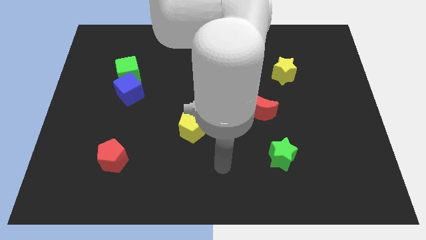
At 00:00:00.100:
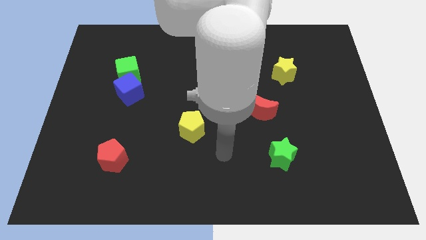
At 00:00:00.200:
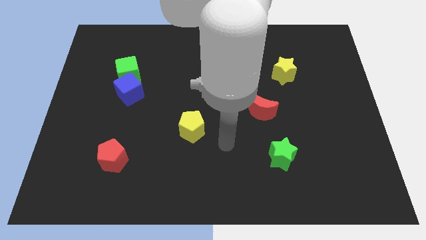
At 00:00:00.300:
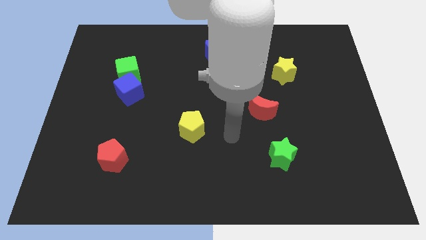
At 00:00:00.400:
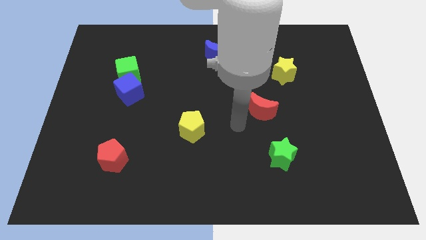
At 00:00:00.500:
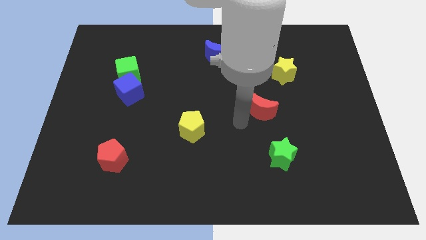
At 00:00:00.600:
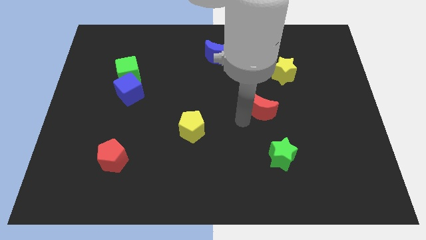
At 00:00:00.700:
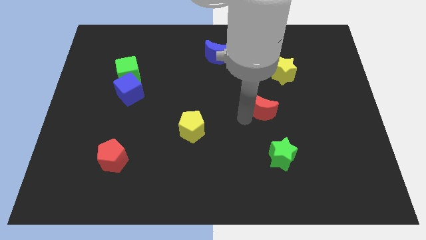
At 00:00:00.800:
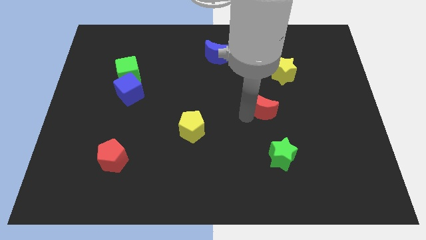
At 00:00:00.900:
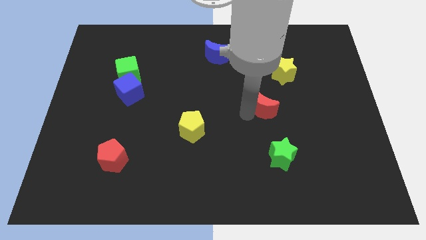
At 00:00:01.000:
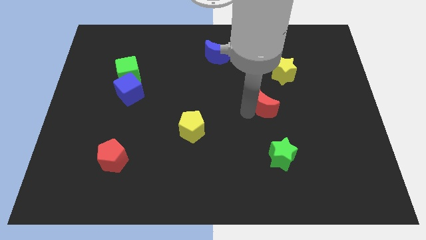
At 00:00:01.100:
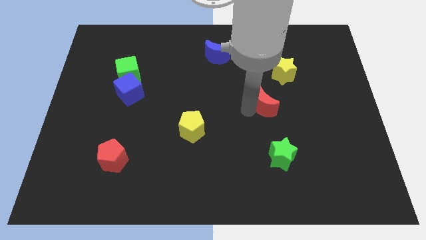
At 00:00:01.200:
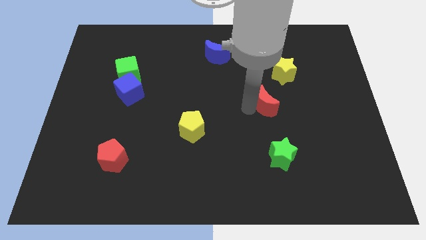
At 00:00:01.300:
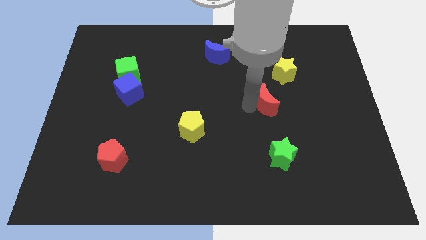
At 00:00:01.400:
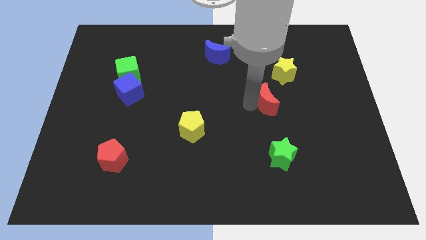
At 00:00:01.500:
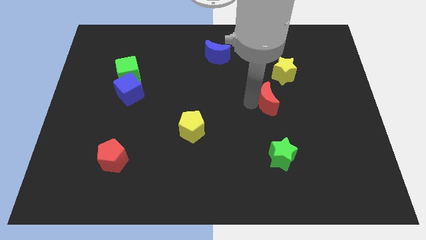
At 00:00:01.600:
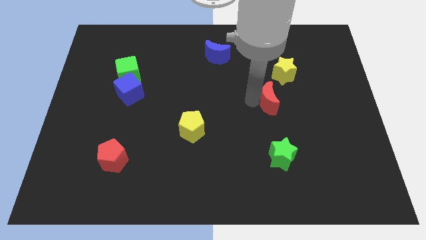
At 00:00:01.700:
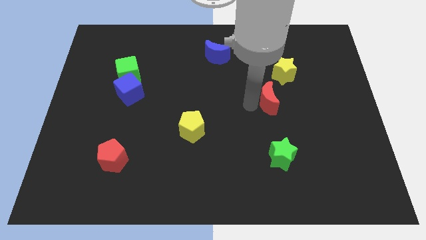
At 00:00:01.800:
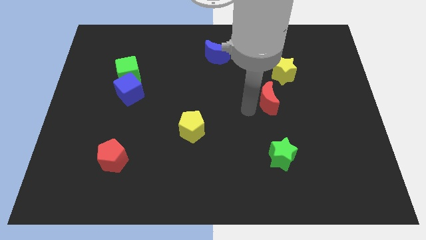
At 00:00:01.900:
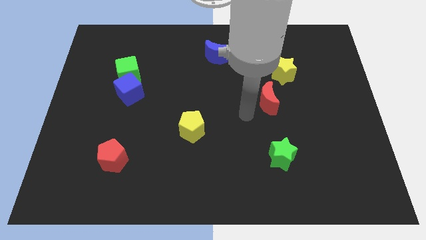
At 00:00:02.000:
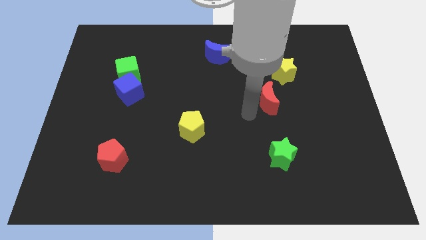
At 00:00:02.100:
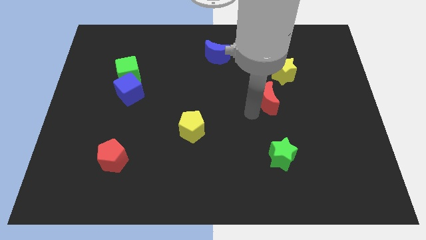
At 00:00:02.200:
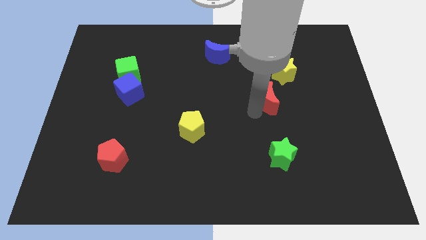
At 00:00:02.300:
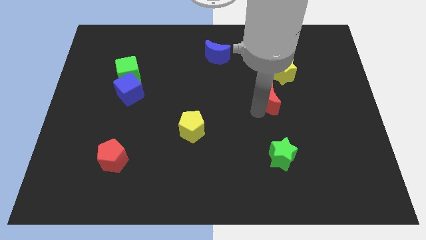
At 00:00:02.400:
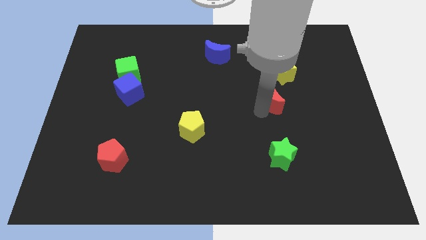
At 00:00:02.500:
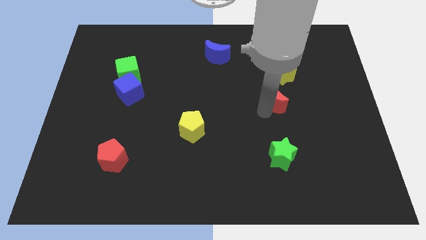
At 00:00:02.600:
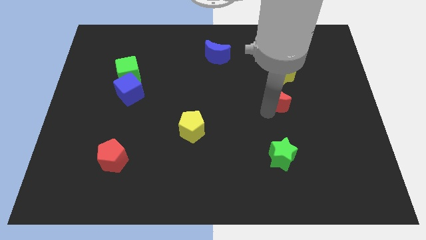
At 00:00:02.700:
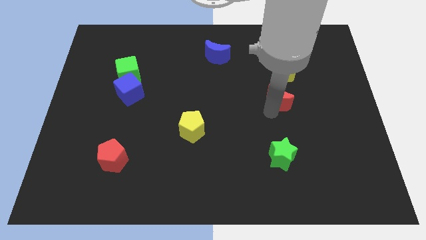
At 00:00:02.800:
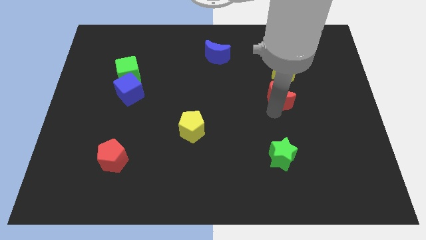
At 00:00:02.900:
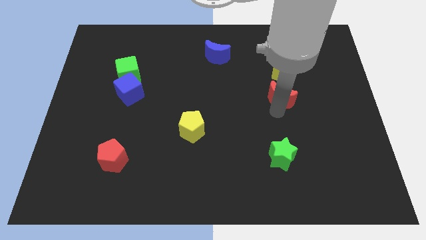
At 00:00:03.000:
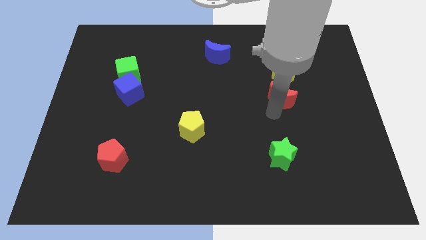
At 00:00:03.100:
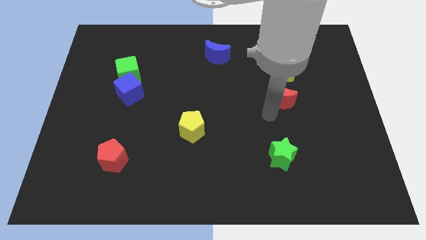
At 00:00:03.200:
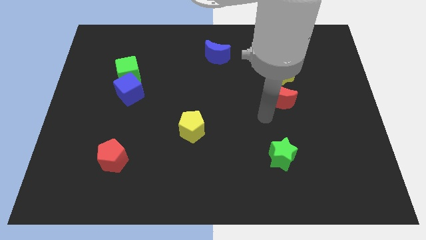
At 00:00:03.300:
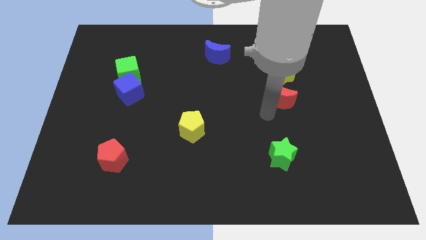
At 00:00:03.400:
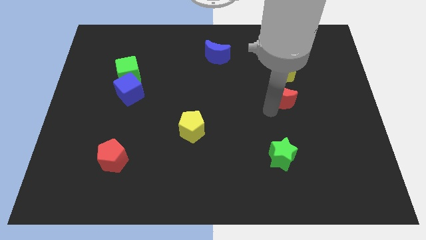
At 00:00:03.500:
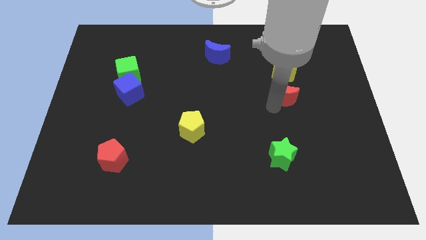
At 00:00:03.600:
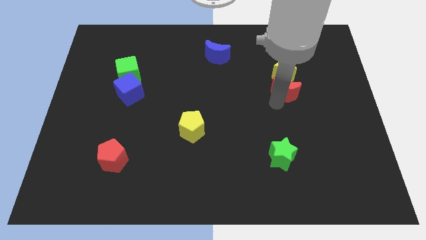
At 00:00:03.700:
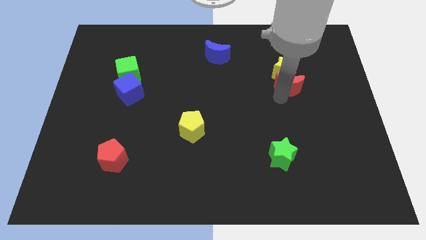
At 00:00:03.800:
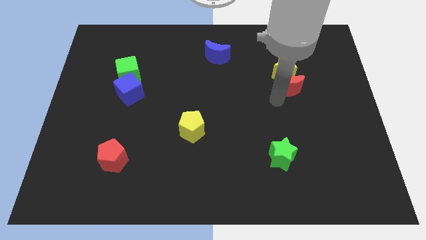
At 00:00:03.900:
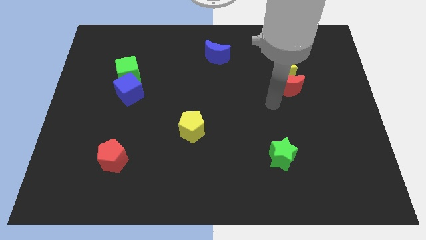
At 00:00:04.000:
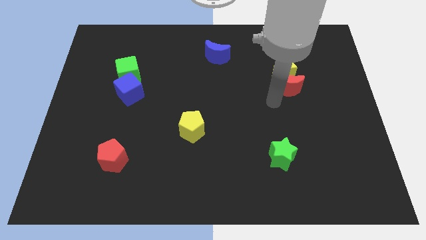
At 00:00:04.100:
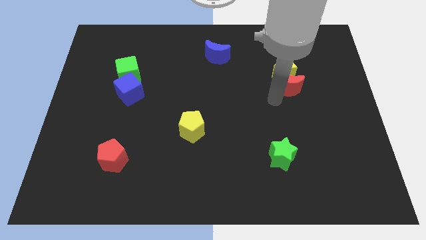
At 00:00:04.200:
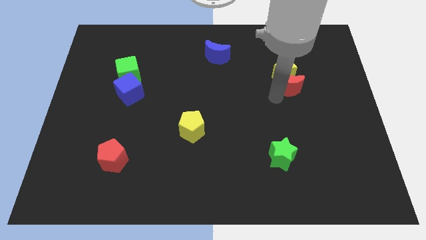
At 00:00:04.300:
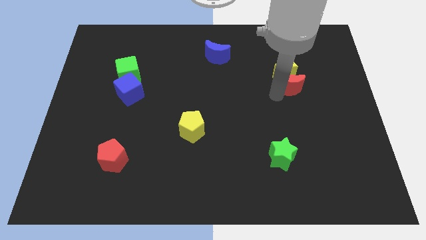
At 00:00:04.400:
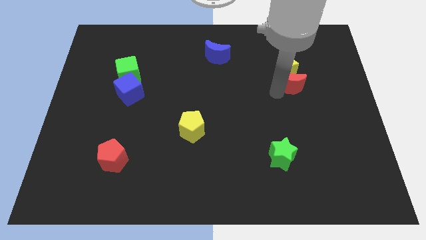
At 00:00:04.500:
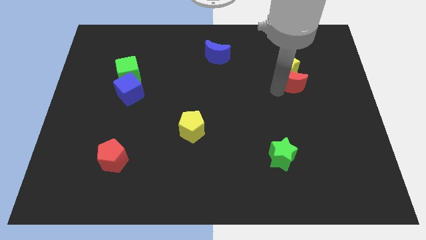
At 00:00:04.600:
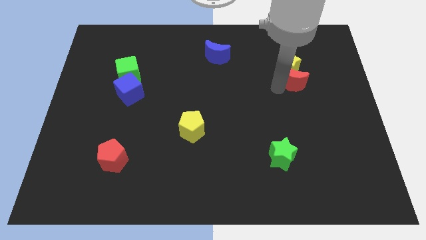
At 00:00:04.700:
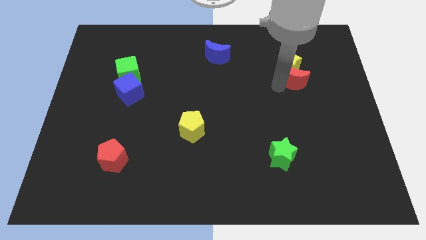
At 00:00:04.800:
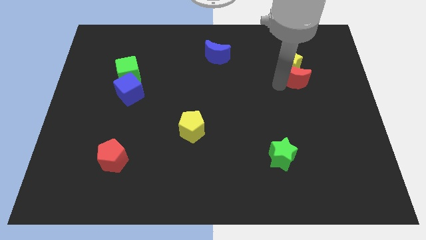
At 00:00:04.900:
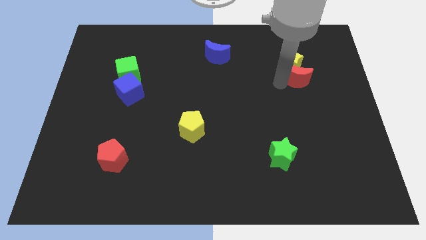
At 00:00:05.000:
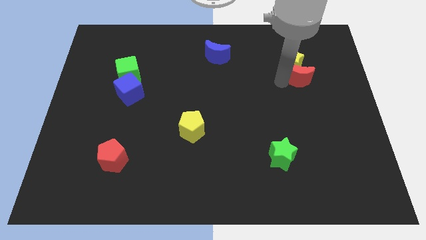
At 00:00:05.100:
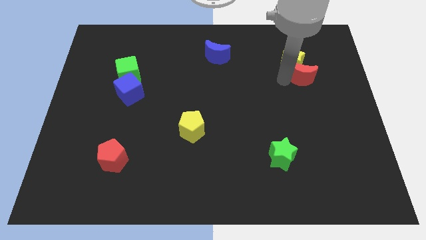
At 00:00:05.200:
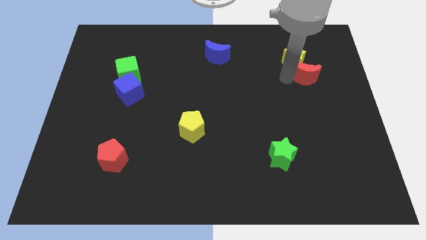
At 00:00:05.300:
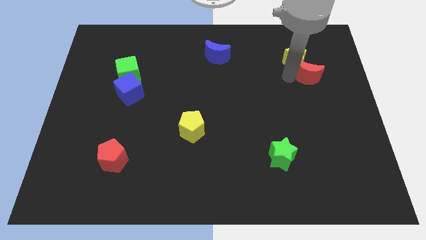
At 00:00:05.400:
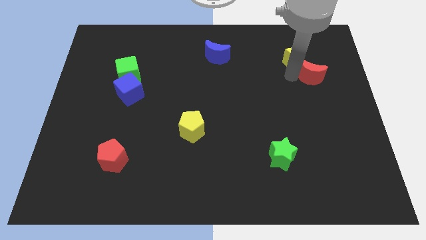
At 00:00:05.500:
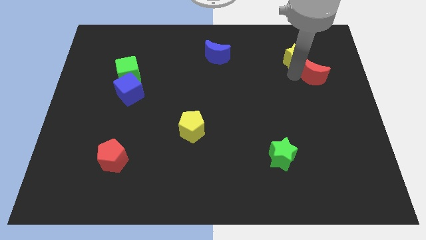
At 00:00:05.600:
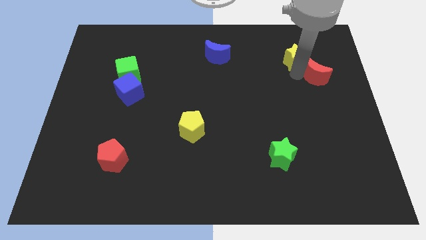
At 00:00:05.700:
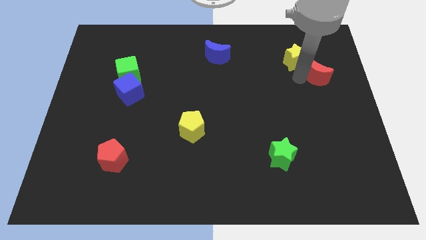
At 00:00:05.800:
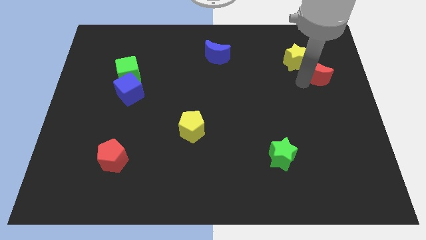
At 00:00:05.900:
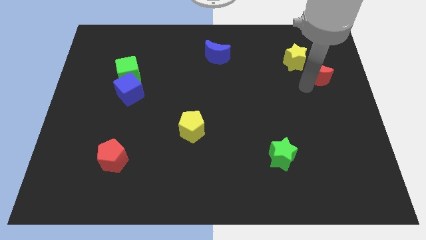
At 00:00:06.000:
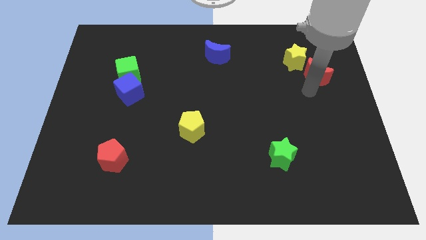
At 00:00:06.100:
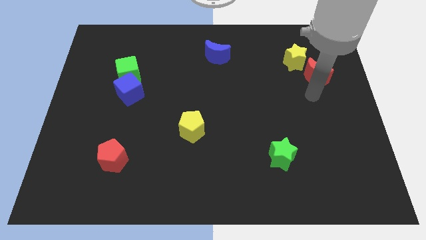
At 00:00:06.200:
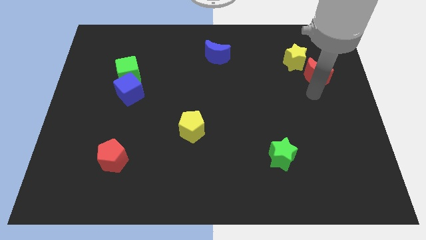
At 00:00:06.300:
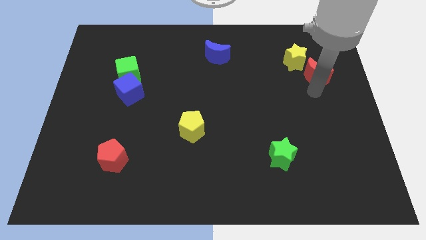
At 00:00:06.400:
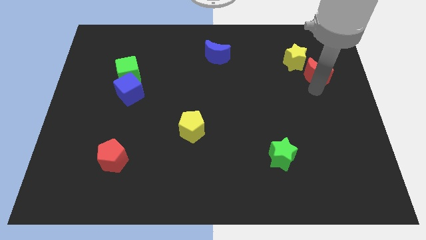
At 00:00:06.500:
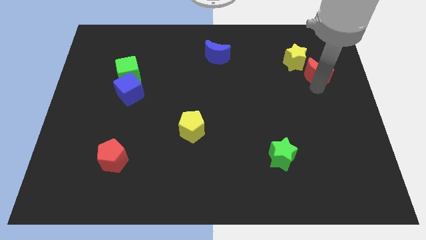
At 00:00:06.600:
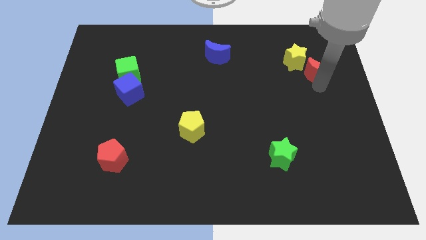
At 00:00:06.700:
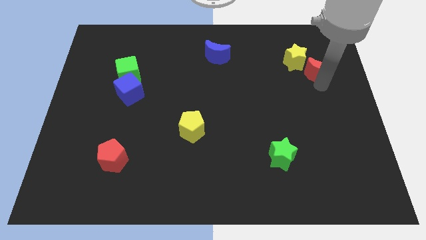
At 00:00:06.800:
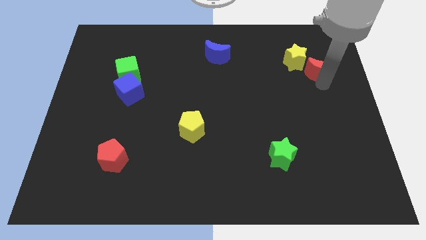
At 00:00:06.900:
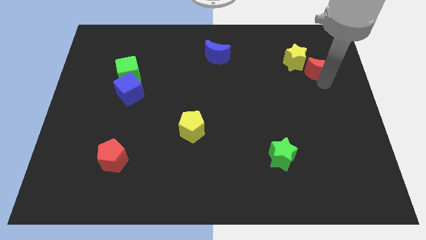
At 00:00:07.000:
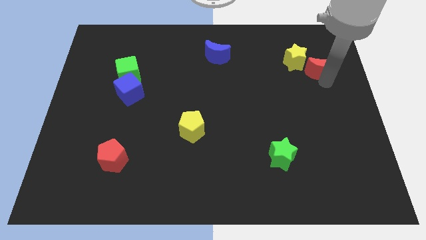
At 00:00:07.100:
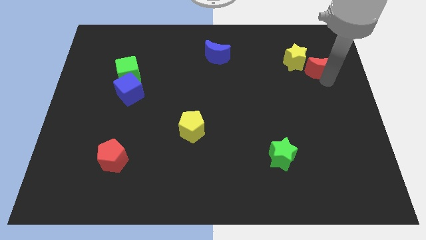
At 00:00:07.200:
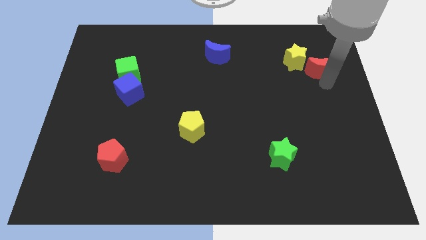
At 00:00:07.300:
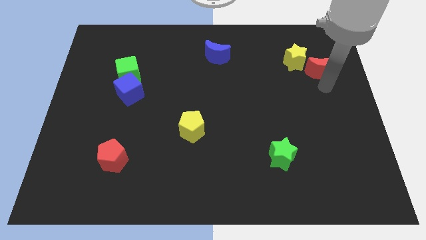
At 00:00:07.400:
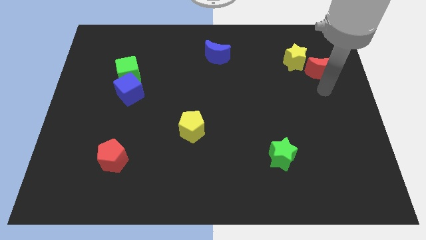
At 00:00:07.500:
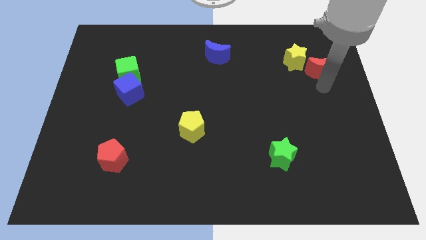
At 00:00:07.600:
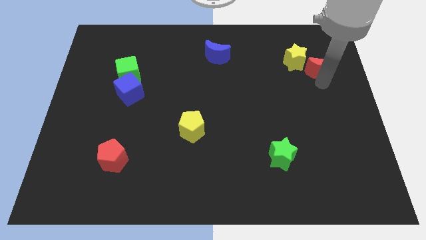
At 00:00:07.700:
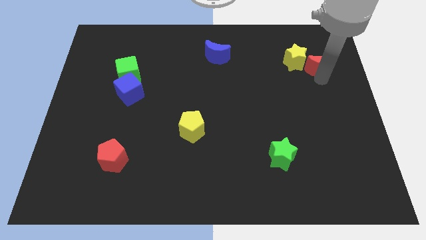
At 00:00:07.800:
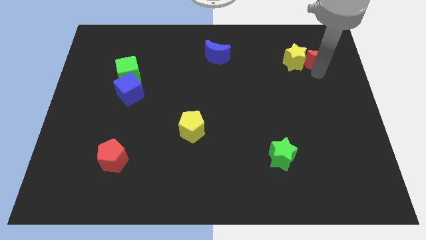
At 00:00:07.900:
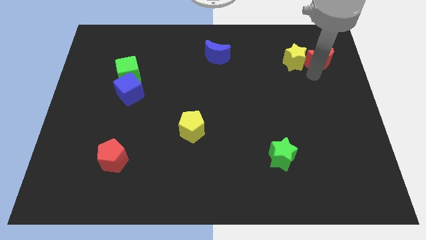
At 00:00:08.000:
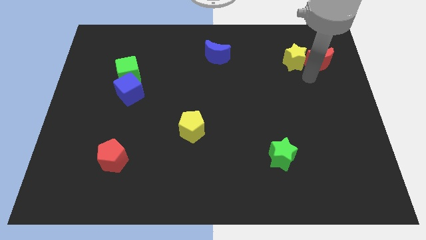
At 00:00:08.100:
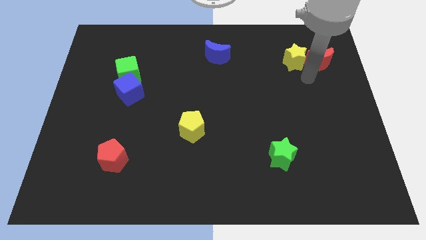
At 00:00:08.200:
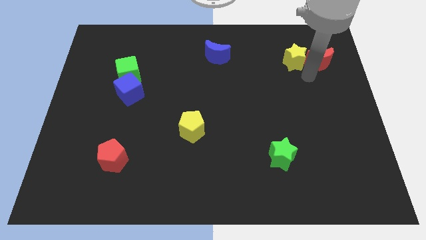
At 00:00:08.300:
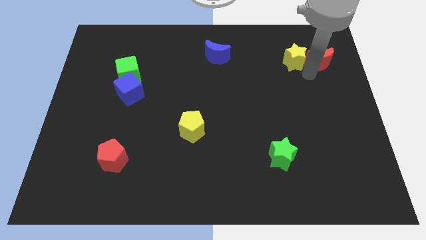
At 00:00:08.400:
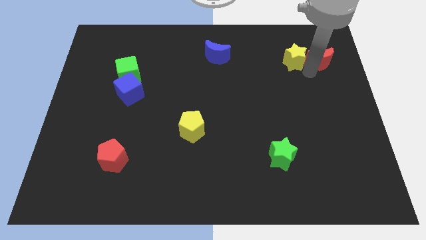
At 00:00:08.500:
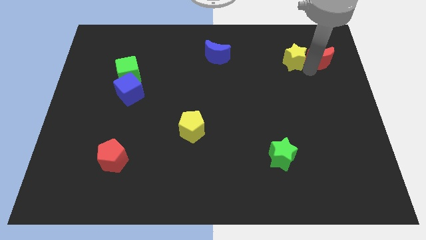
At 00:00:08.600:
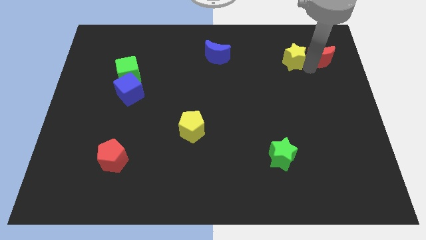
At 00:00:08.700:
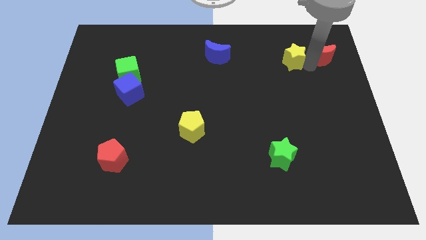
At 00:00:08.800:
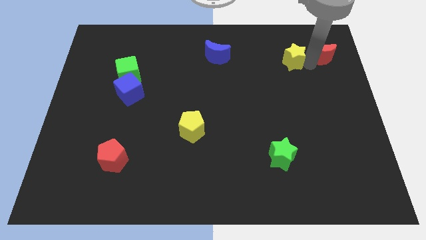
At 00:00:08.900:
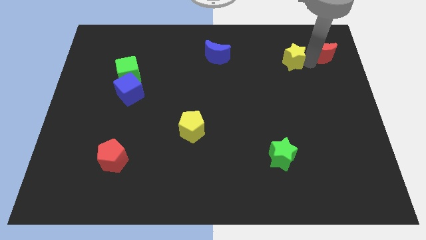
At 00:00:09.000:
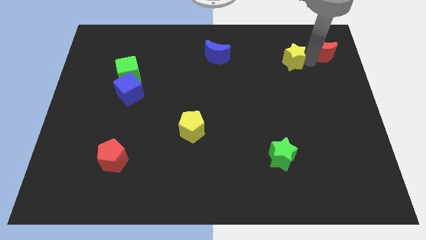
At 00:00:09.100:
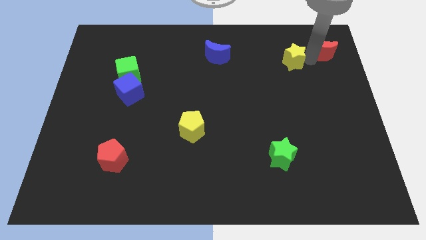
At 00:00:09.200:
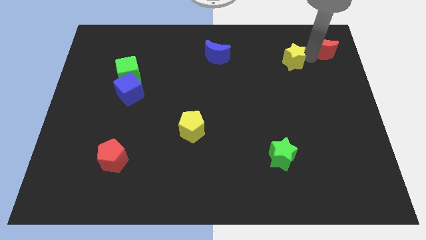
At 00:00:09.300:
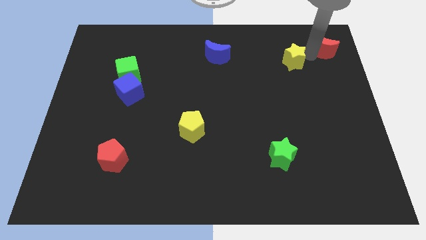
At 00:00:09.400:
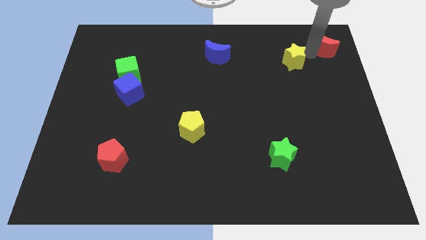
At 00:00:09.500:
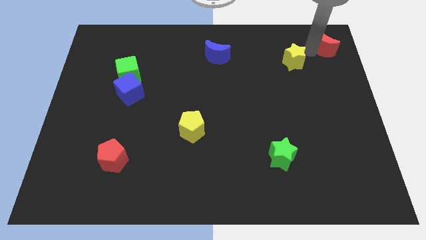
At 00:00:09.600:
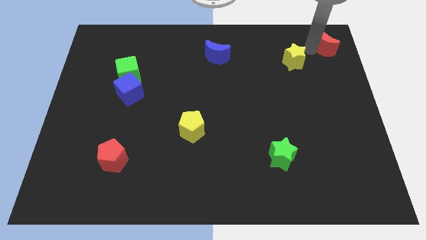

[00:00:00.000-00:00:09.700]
push the red moon to the top right of the board
